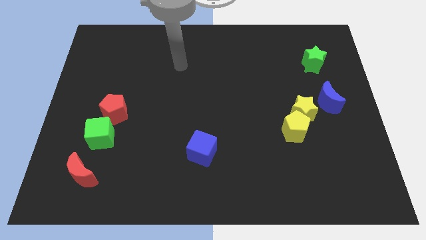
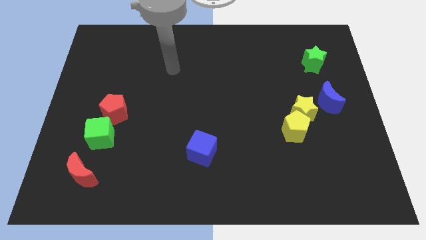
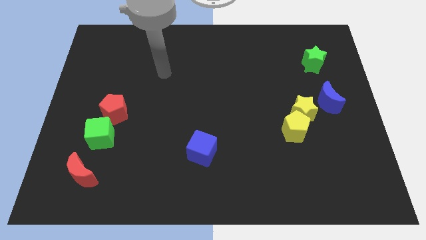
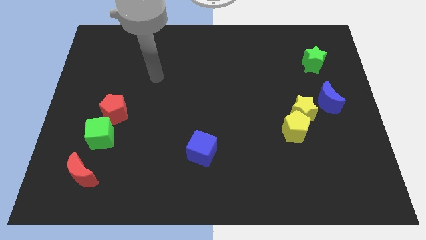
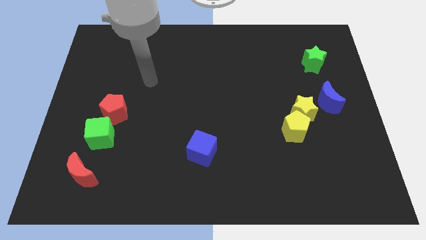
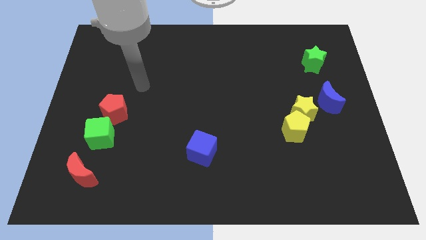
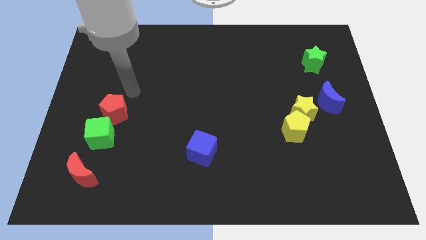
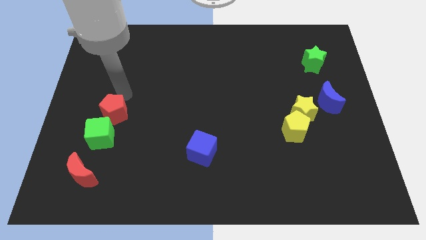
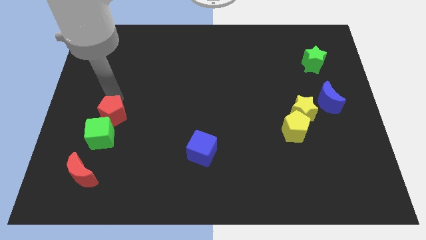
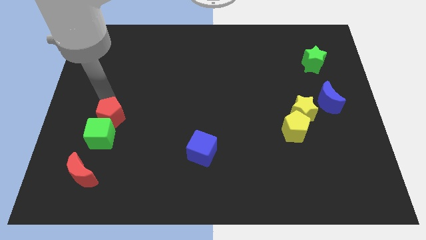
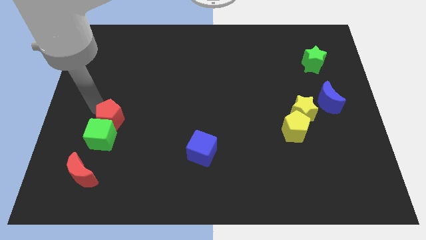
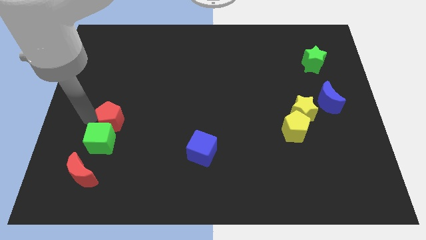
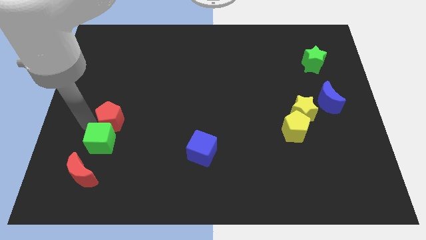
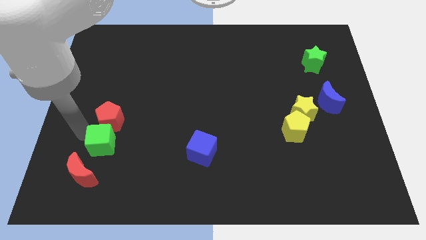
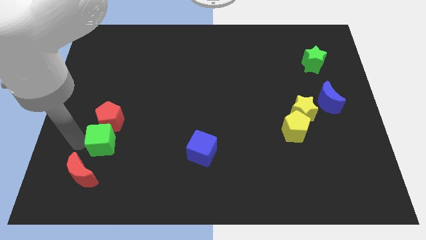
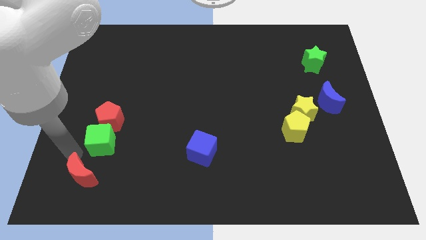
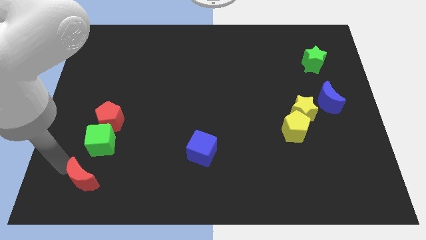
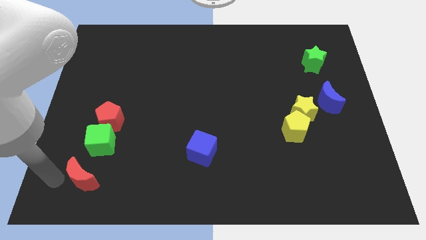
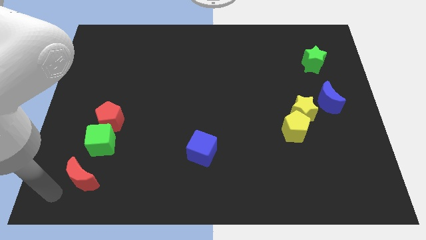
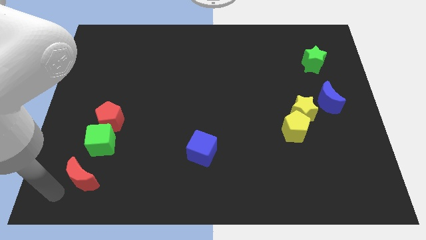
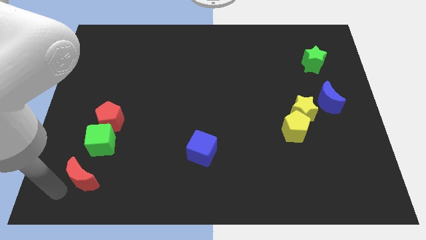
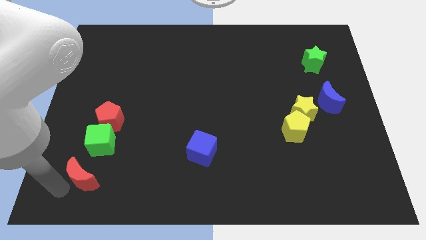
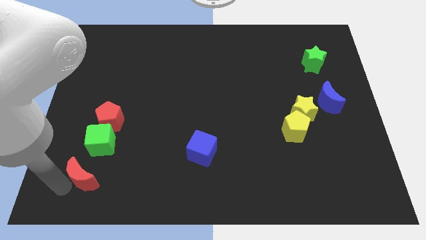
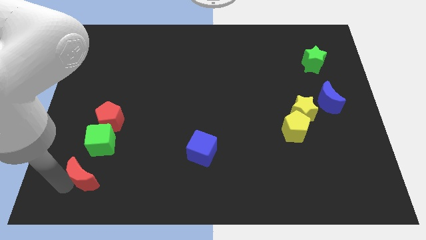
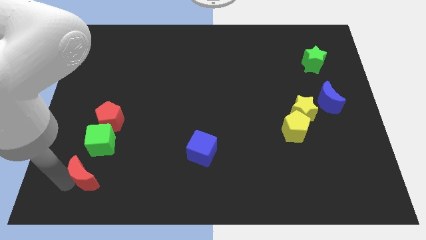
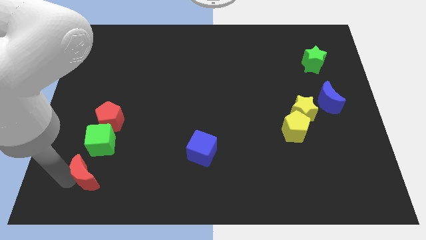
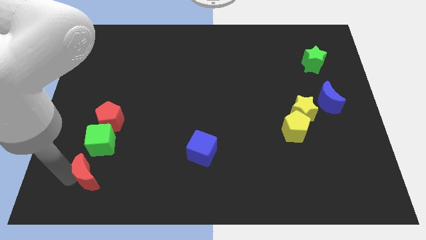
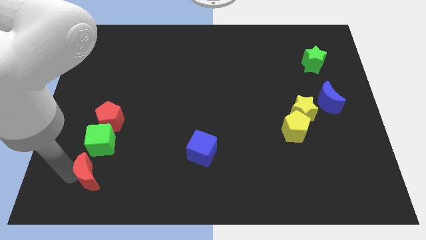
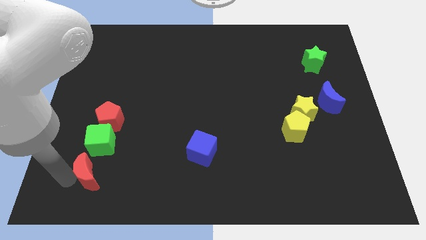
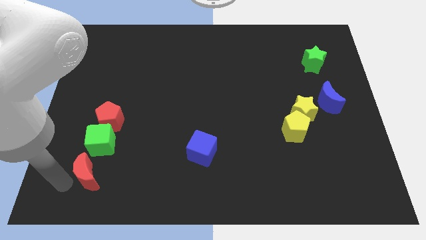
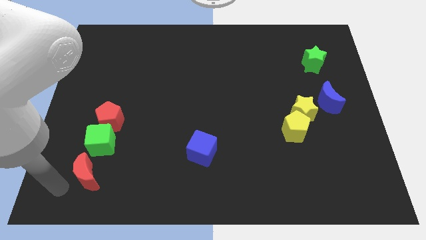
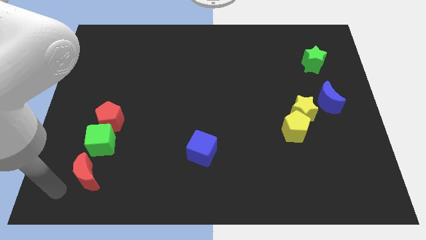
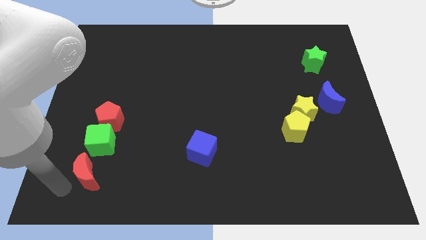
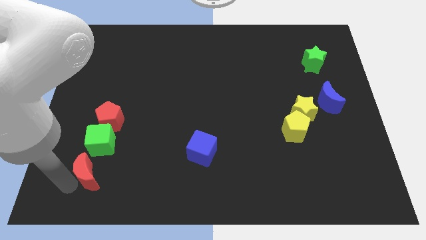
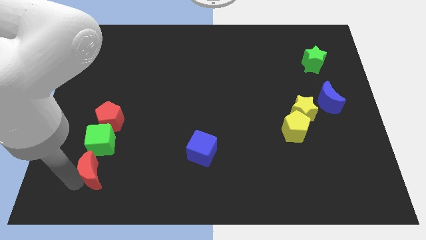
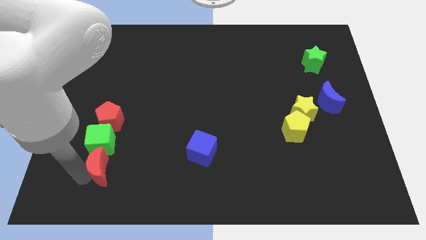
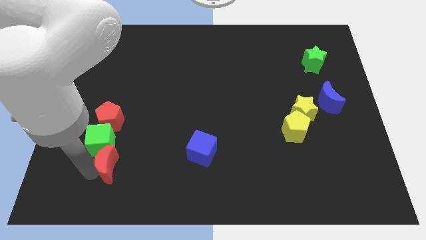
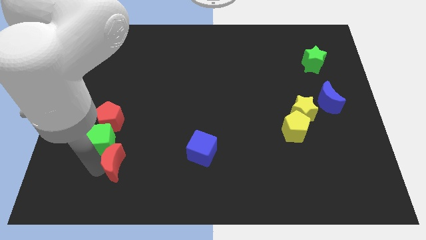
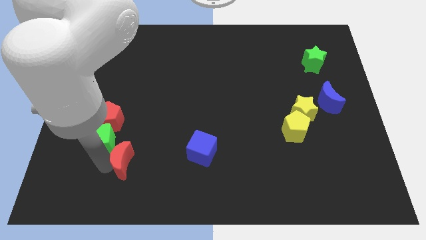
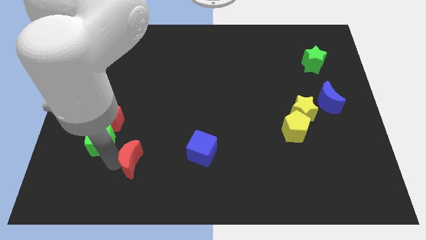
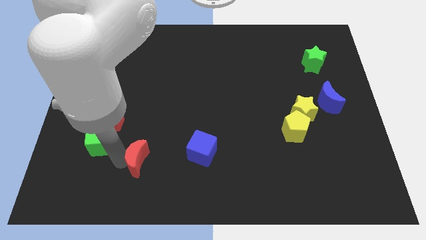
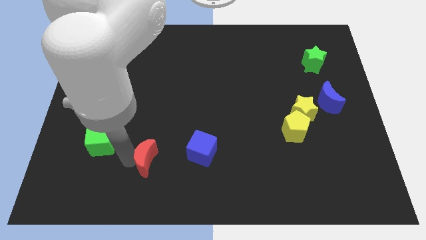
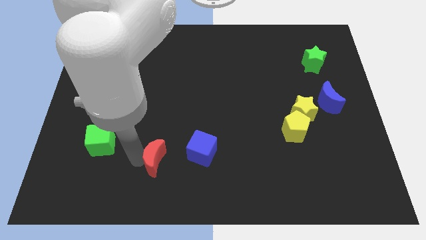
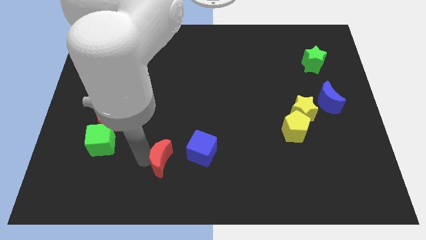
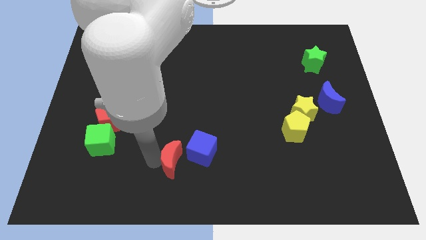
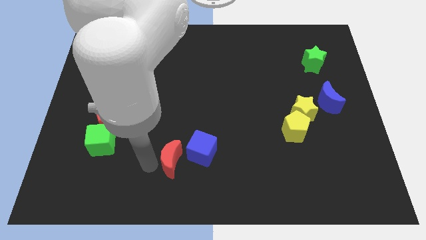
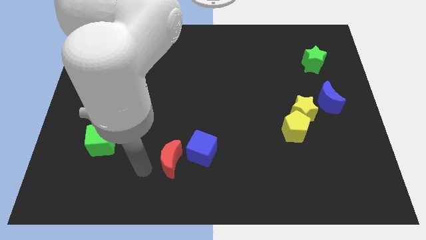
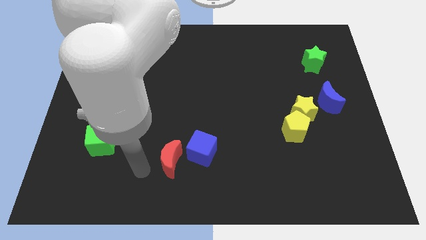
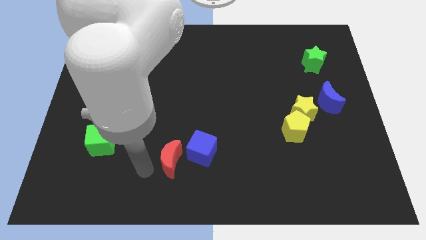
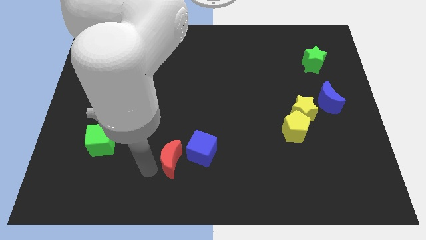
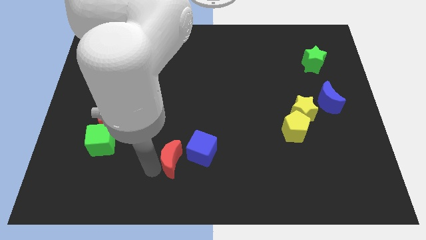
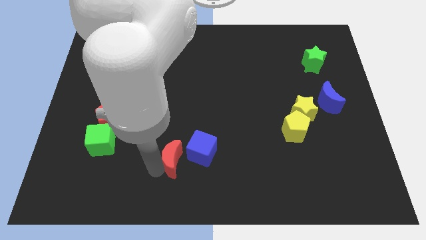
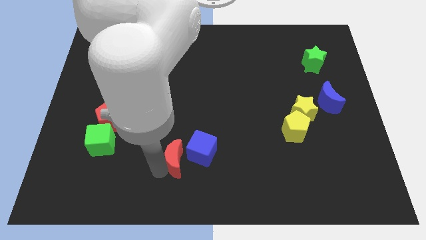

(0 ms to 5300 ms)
slide the red moon towards the blue cube

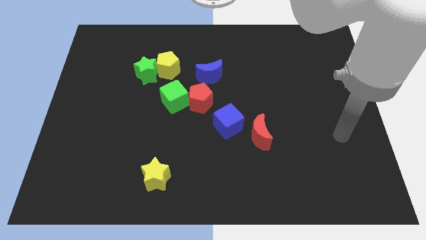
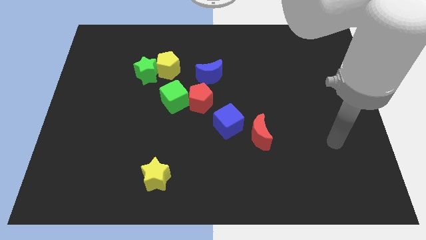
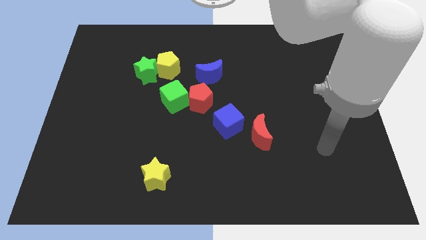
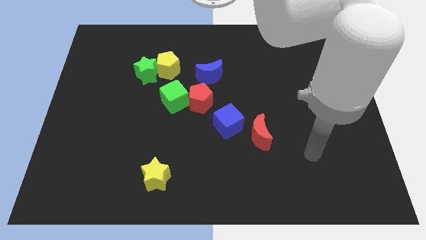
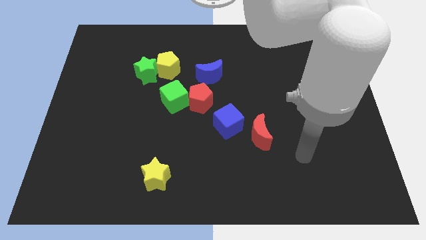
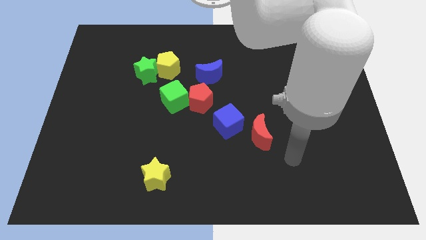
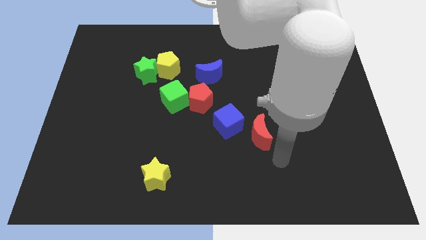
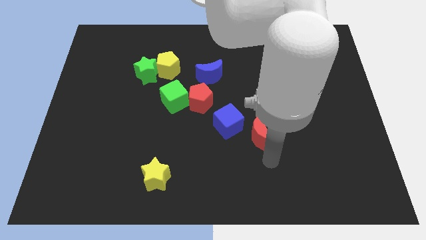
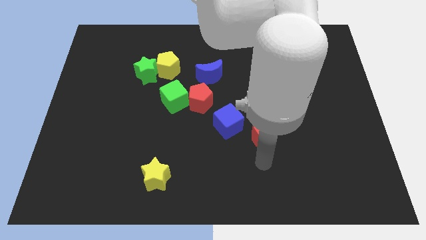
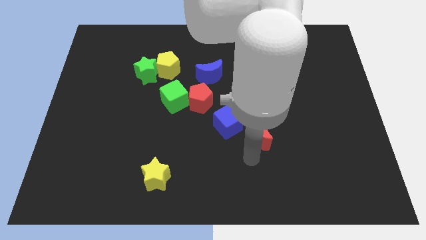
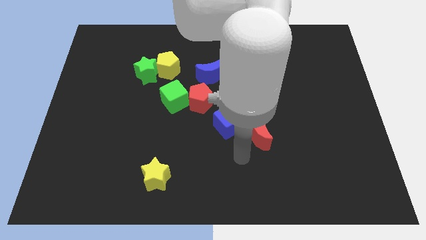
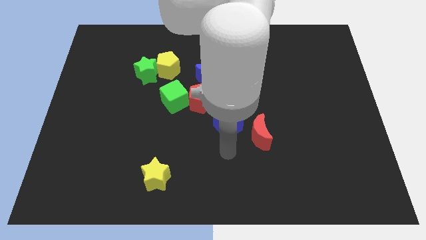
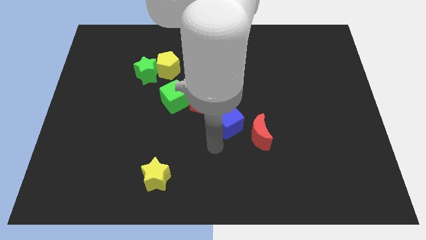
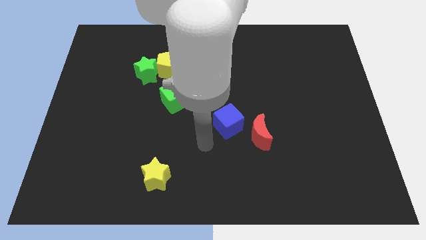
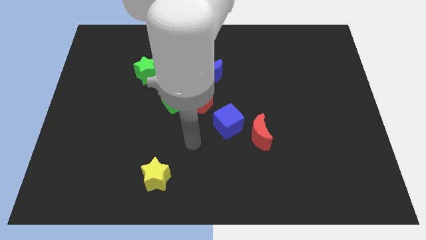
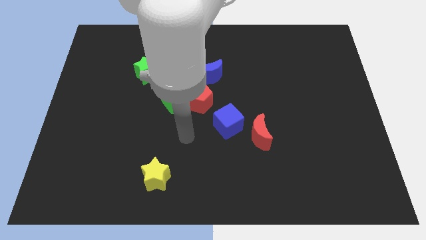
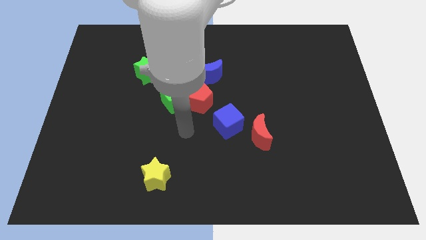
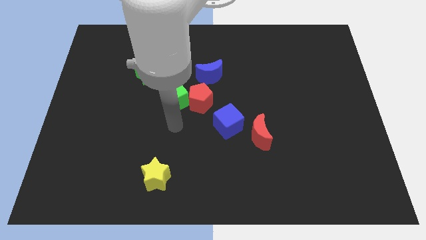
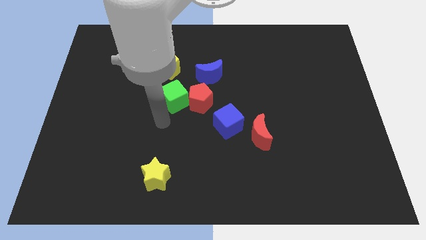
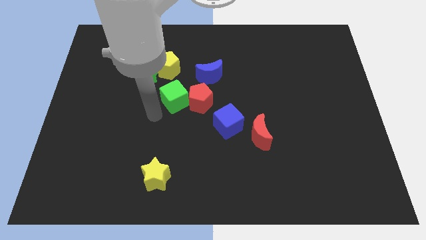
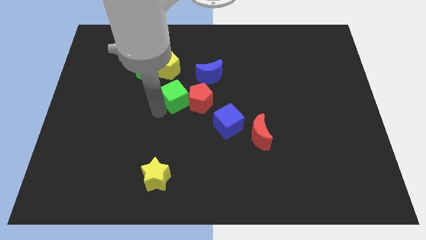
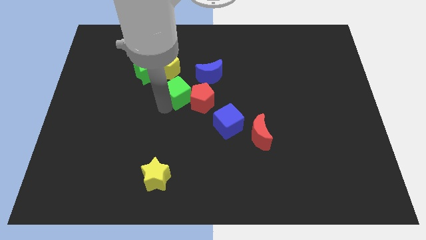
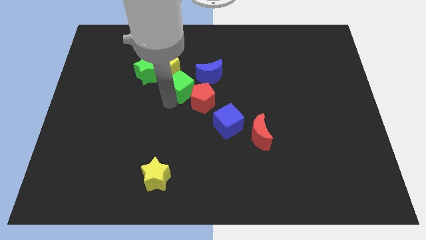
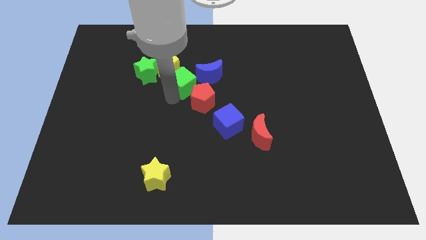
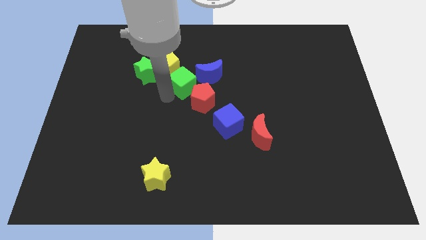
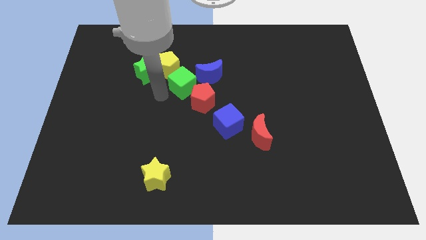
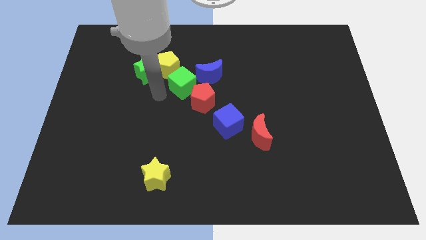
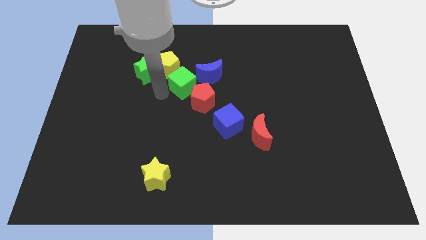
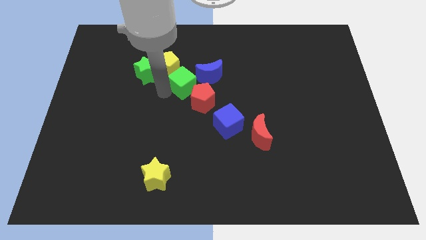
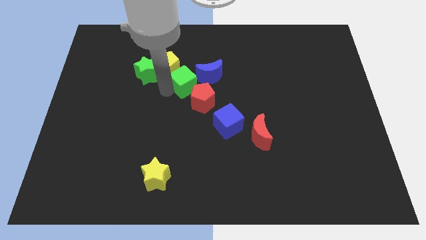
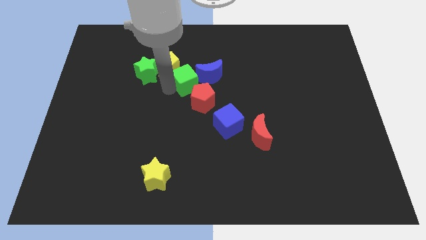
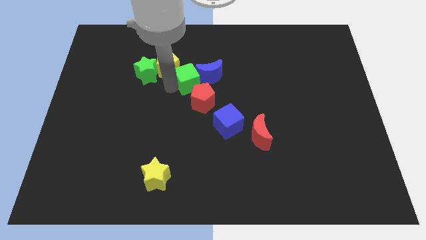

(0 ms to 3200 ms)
put the green cube towards the blue moon
